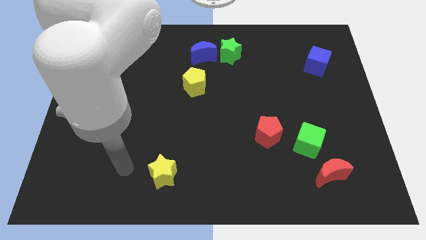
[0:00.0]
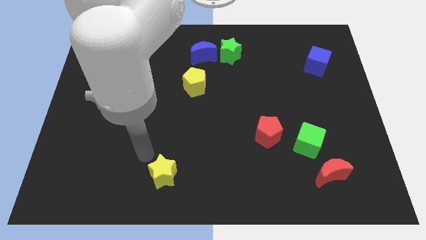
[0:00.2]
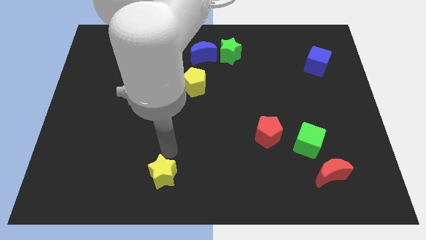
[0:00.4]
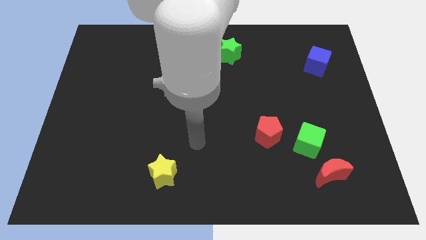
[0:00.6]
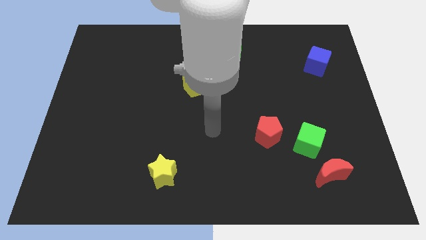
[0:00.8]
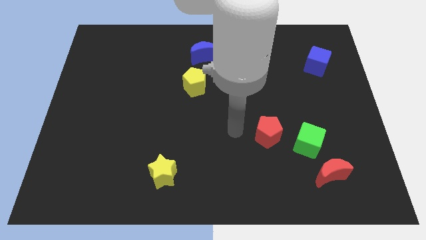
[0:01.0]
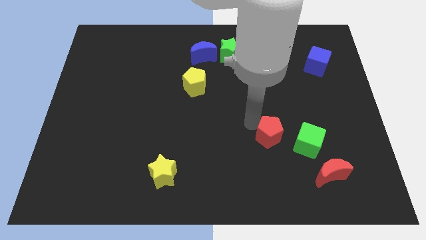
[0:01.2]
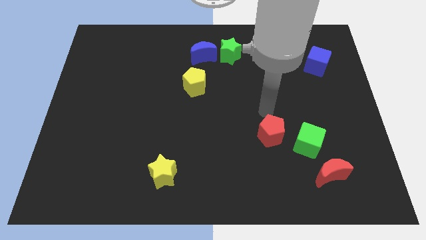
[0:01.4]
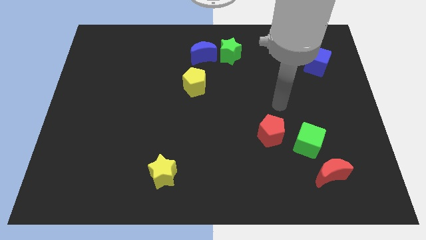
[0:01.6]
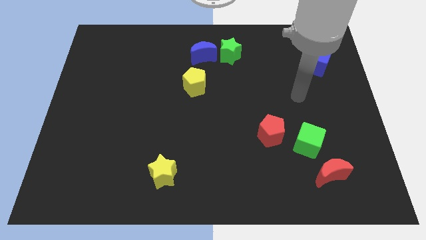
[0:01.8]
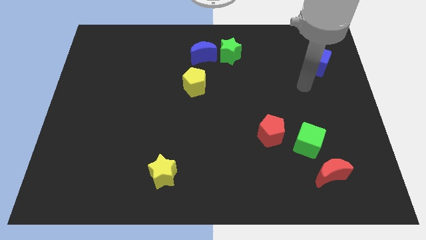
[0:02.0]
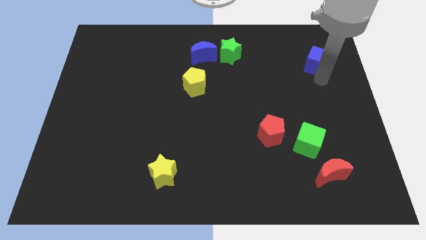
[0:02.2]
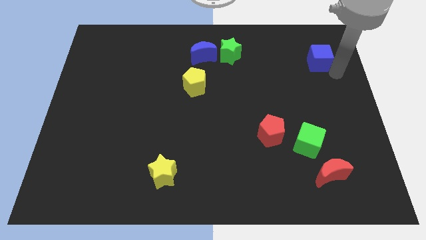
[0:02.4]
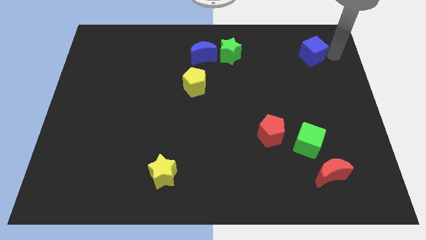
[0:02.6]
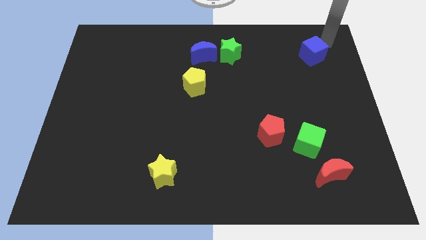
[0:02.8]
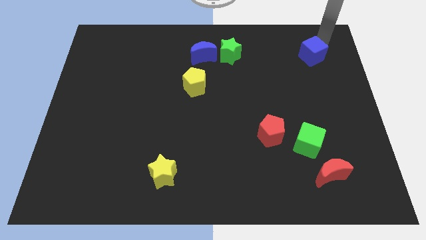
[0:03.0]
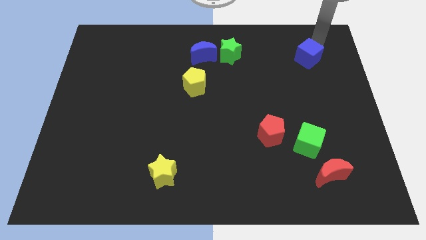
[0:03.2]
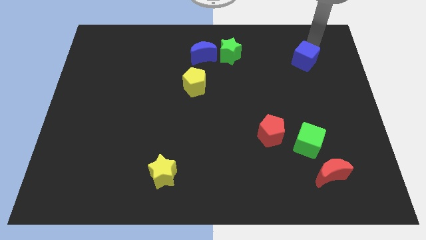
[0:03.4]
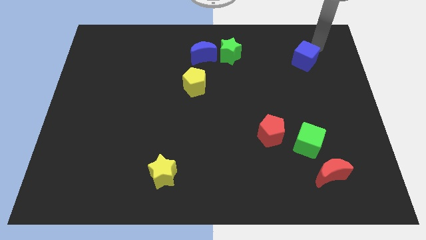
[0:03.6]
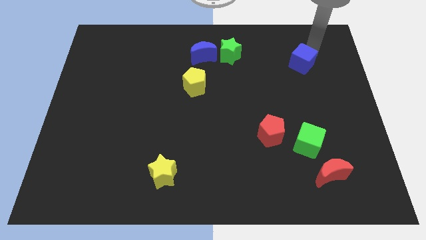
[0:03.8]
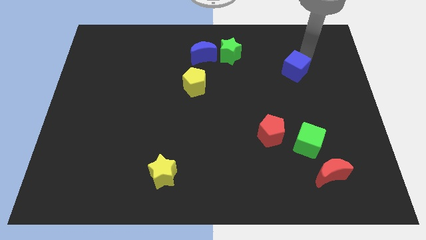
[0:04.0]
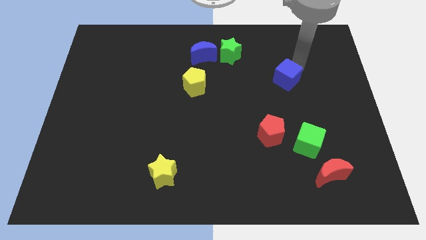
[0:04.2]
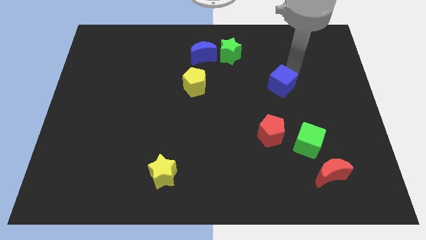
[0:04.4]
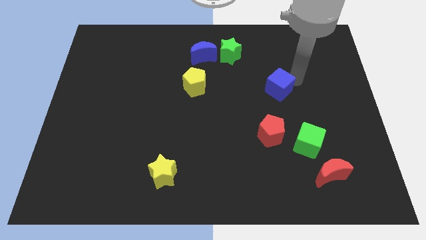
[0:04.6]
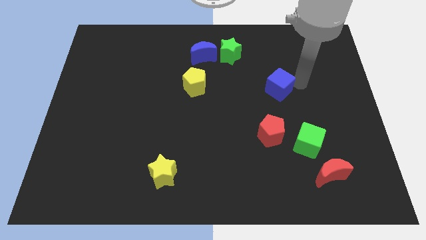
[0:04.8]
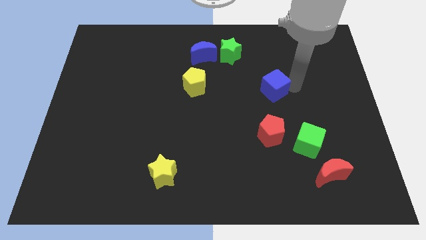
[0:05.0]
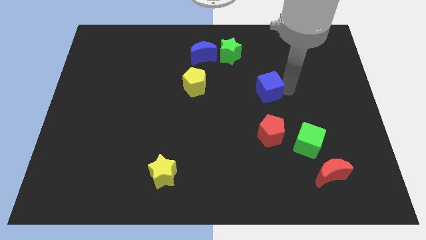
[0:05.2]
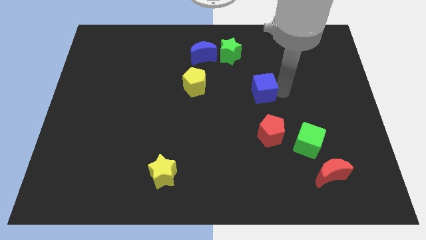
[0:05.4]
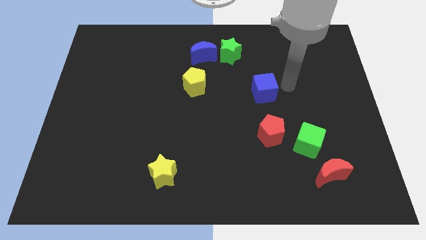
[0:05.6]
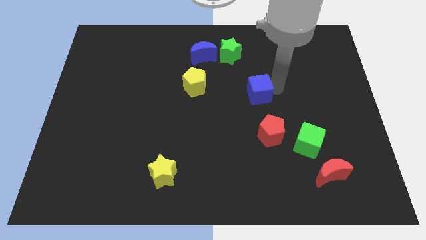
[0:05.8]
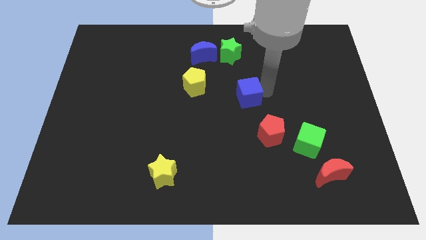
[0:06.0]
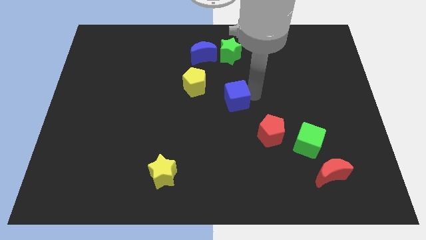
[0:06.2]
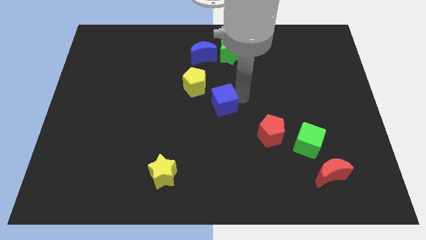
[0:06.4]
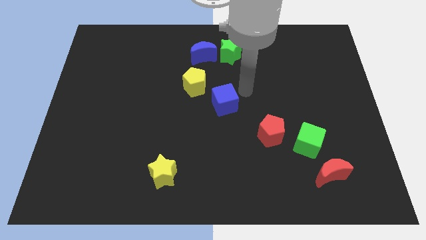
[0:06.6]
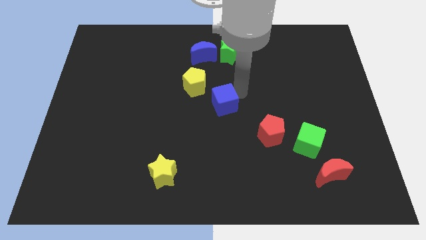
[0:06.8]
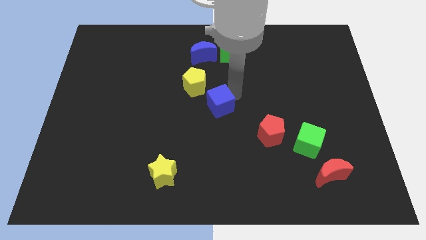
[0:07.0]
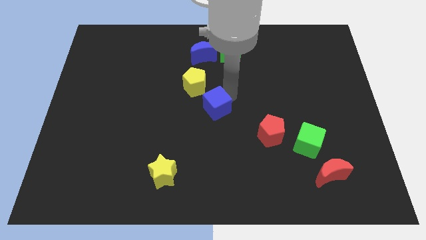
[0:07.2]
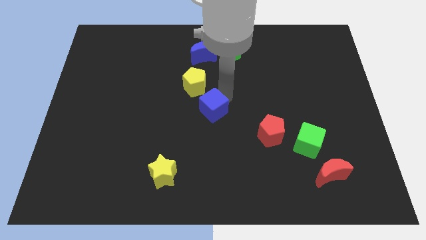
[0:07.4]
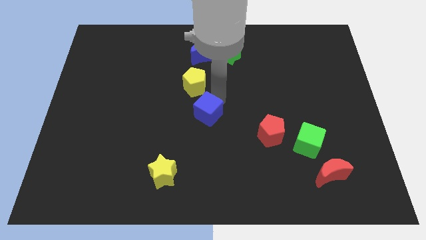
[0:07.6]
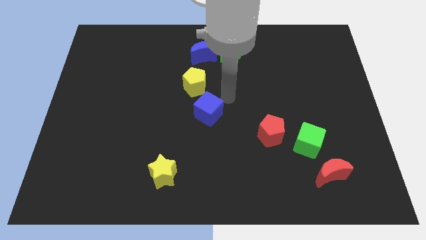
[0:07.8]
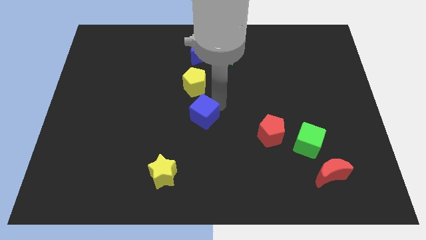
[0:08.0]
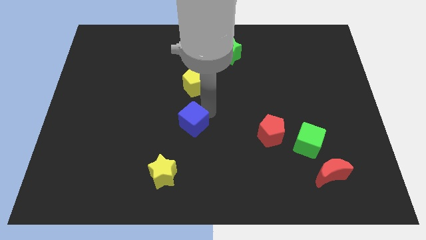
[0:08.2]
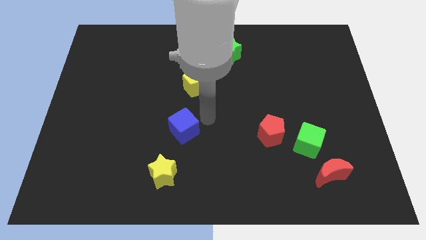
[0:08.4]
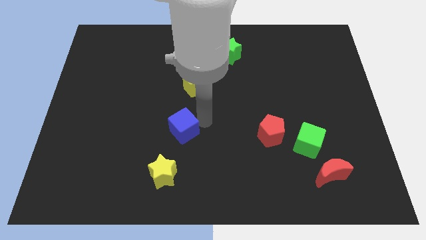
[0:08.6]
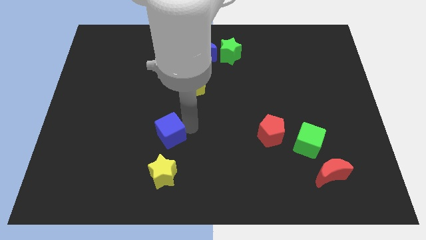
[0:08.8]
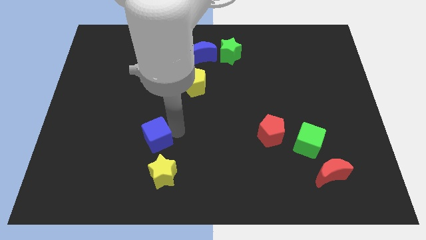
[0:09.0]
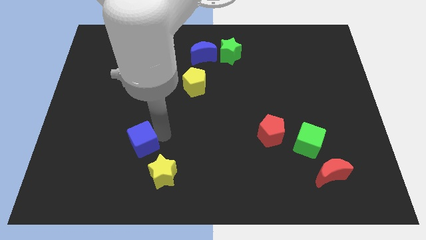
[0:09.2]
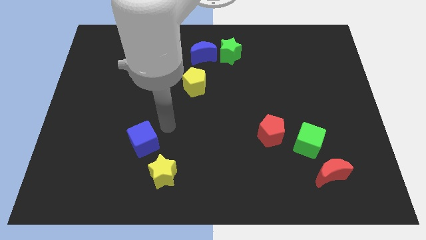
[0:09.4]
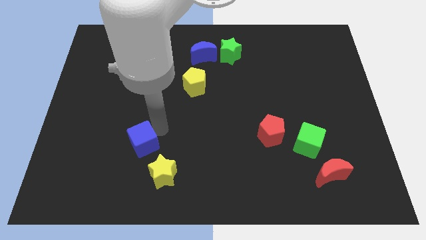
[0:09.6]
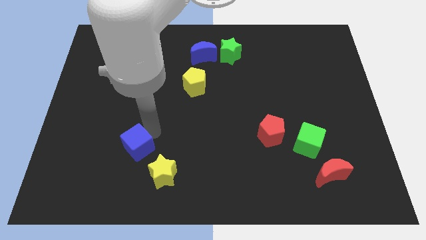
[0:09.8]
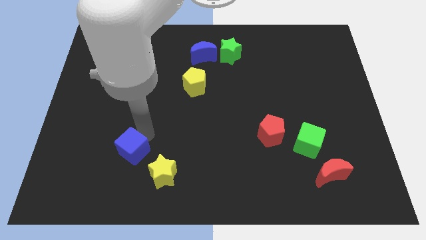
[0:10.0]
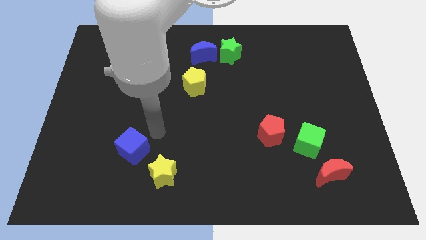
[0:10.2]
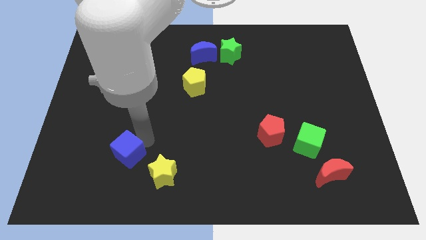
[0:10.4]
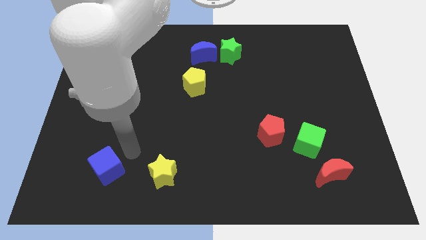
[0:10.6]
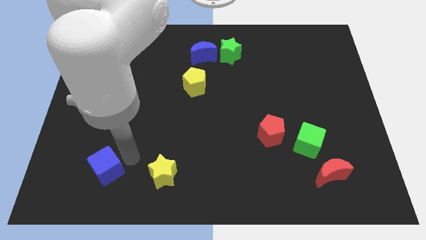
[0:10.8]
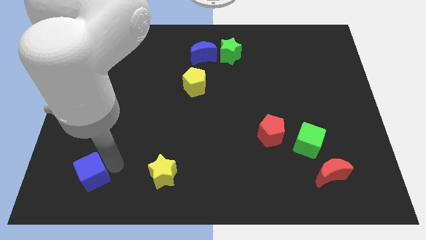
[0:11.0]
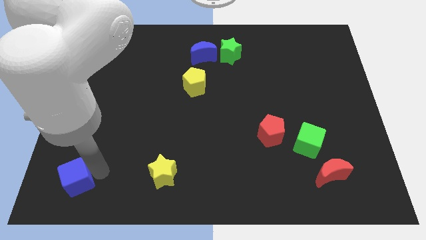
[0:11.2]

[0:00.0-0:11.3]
push the blue cube to the bottom left

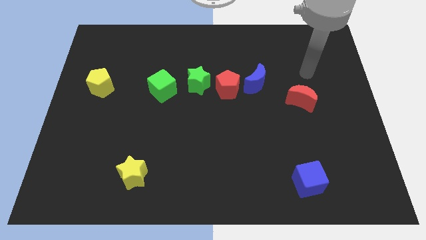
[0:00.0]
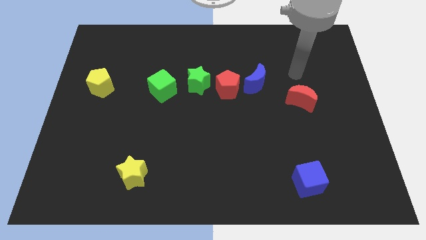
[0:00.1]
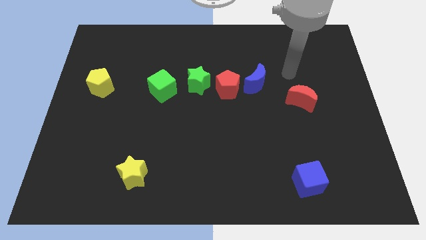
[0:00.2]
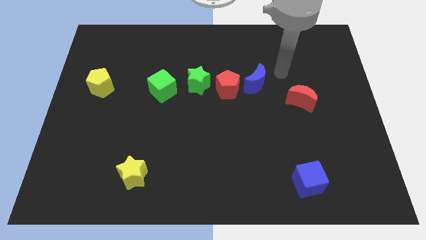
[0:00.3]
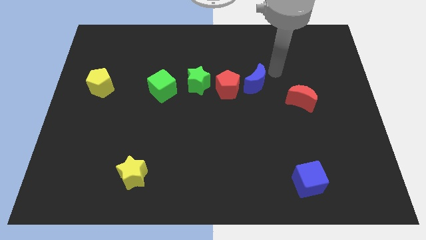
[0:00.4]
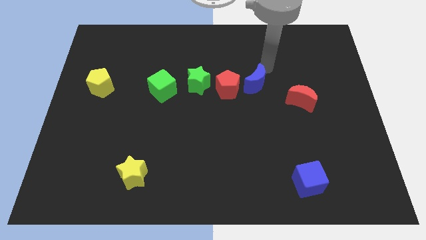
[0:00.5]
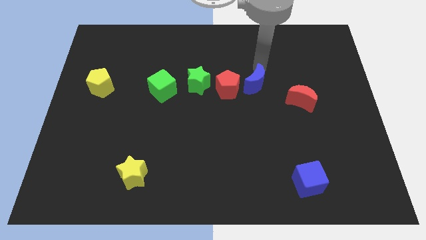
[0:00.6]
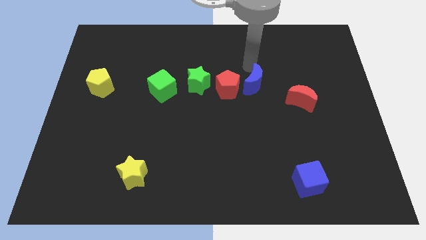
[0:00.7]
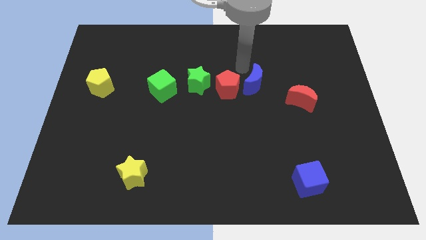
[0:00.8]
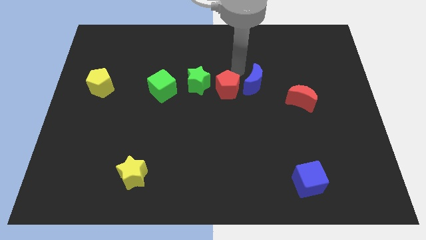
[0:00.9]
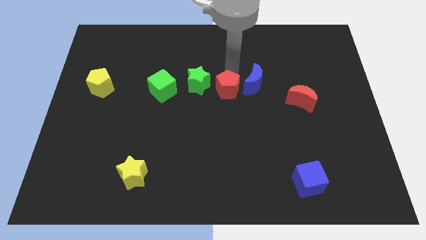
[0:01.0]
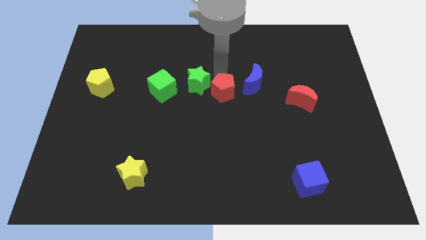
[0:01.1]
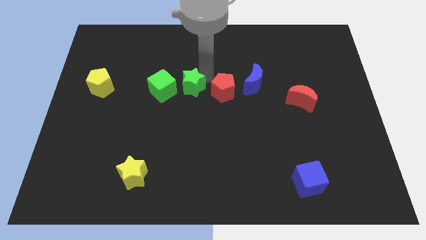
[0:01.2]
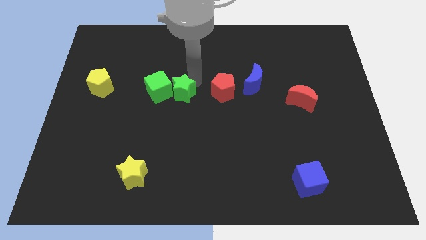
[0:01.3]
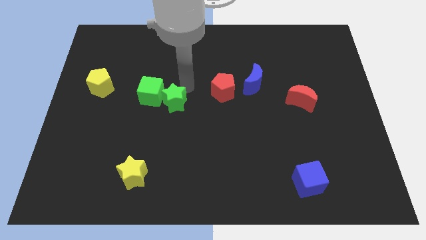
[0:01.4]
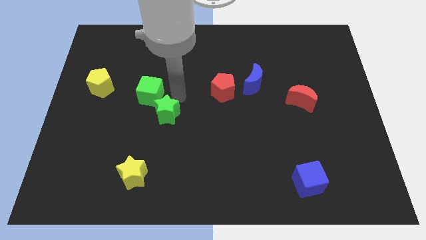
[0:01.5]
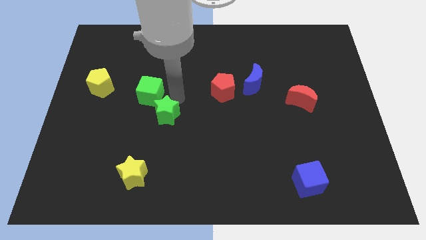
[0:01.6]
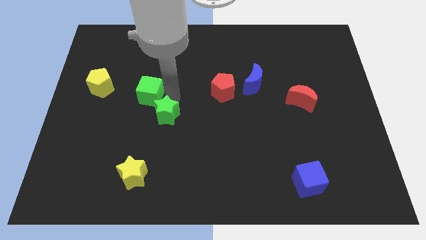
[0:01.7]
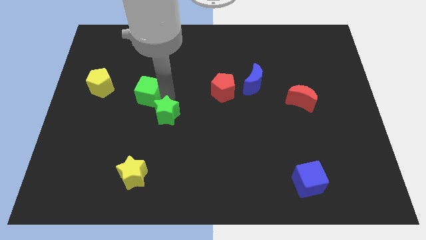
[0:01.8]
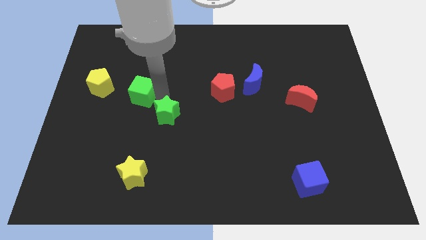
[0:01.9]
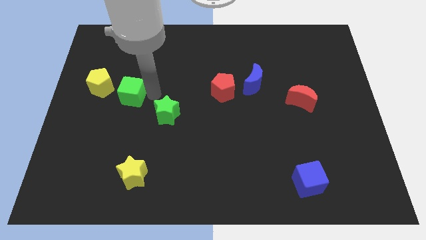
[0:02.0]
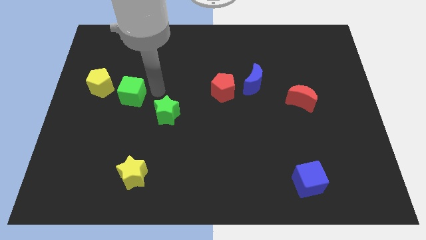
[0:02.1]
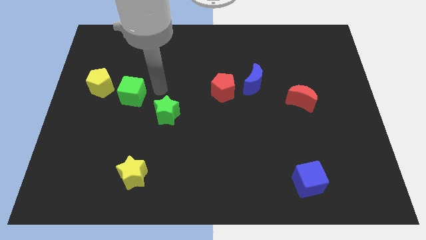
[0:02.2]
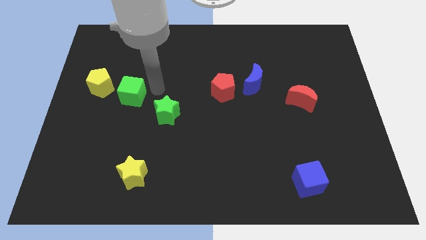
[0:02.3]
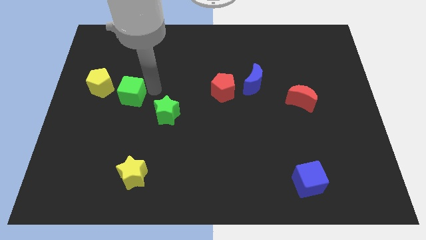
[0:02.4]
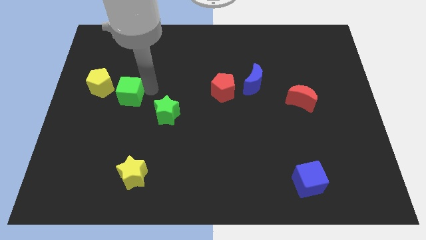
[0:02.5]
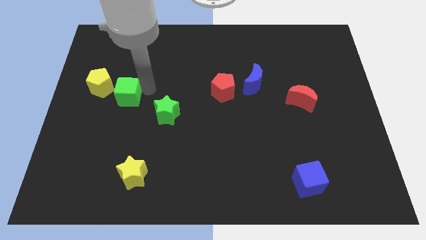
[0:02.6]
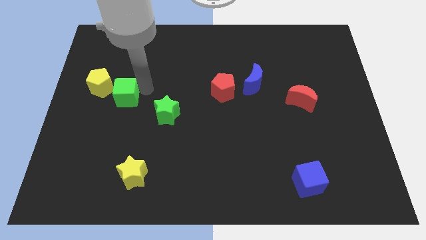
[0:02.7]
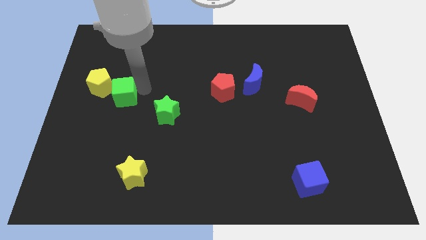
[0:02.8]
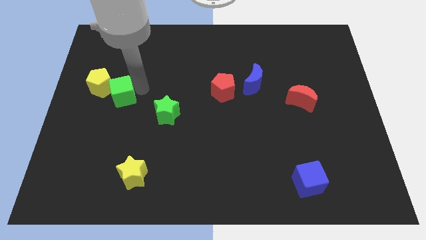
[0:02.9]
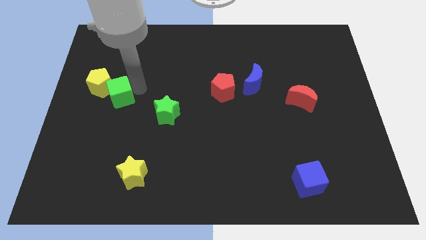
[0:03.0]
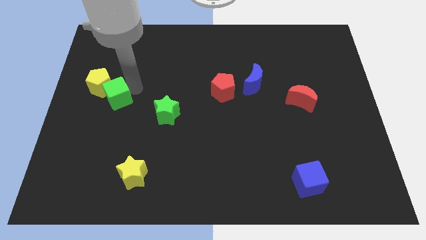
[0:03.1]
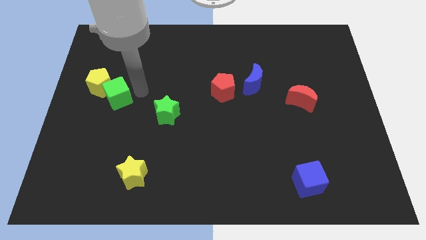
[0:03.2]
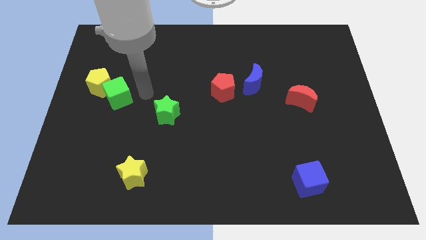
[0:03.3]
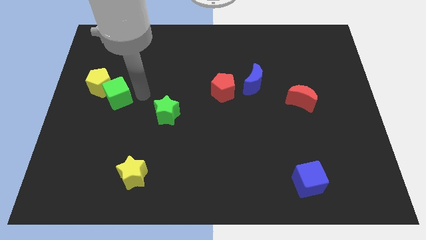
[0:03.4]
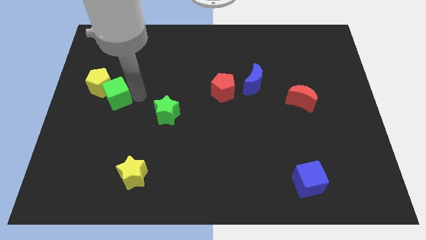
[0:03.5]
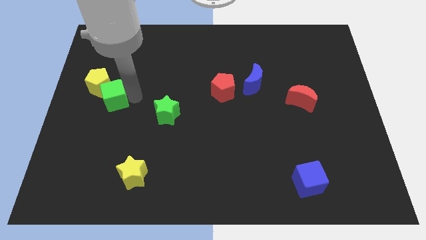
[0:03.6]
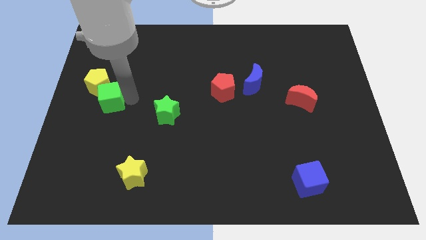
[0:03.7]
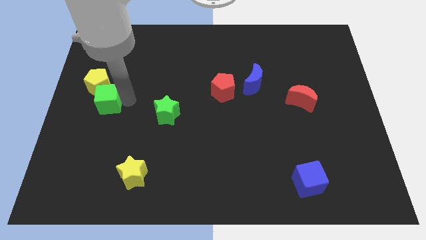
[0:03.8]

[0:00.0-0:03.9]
push the green cube to the left side
